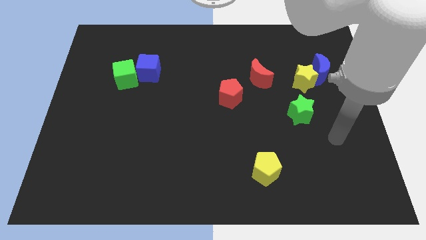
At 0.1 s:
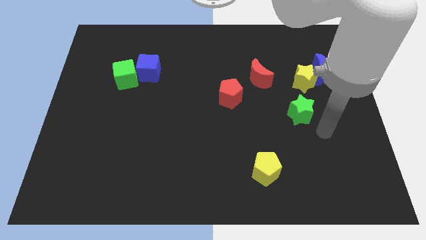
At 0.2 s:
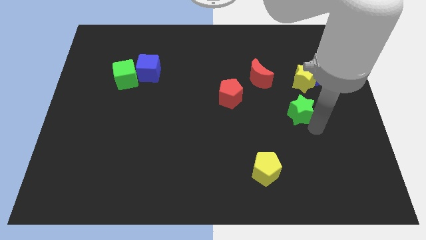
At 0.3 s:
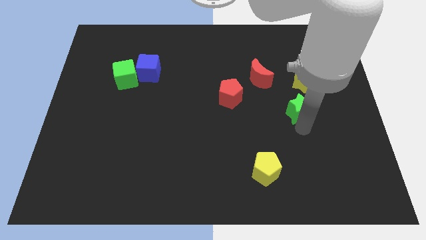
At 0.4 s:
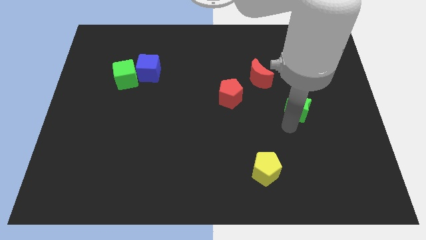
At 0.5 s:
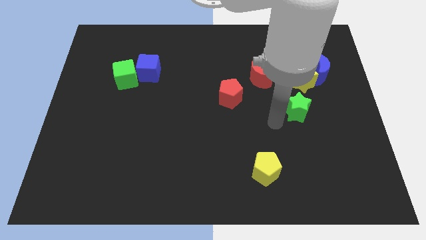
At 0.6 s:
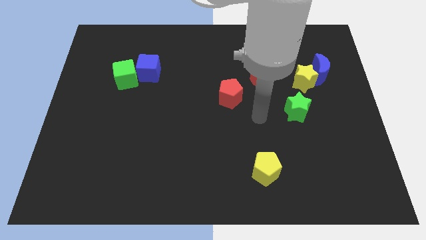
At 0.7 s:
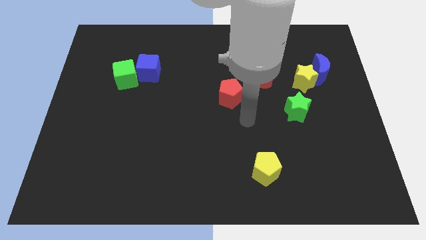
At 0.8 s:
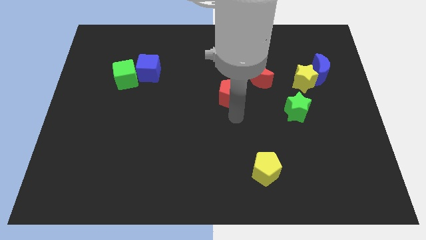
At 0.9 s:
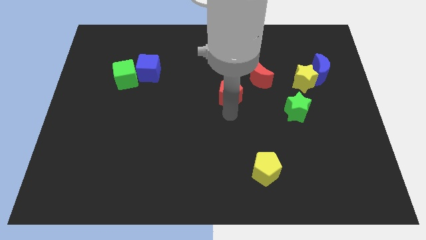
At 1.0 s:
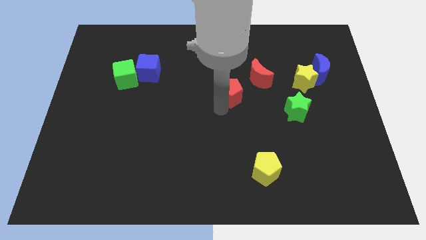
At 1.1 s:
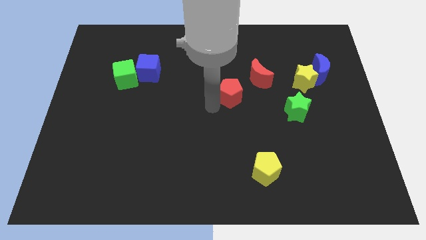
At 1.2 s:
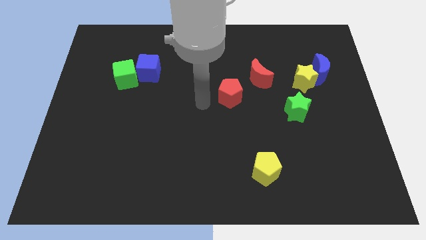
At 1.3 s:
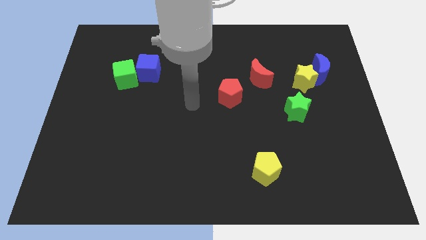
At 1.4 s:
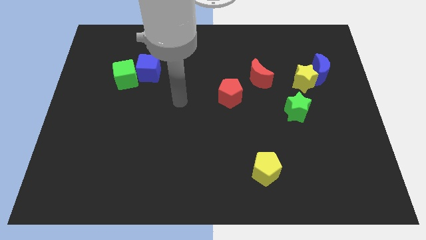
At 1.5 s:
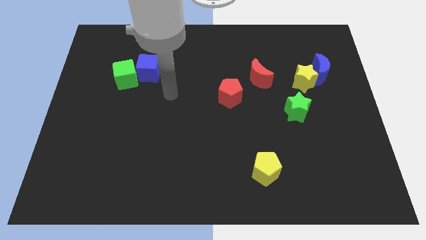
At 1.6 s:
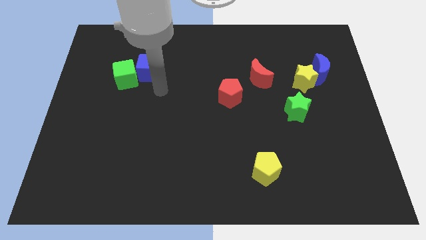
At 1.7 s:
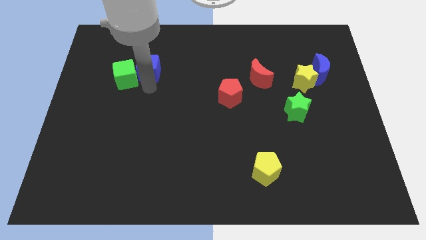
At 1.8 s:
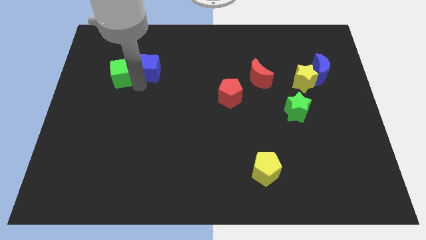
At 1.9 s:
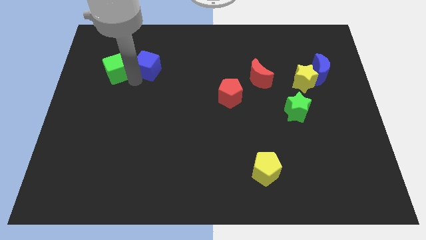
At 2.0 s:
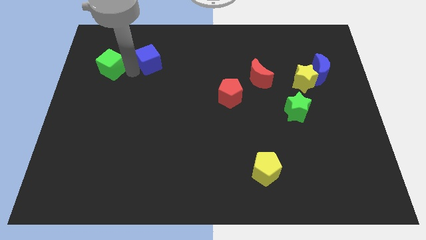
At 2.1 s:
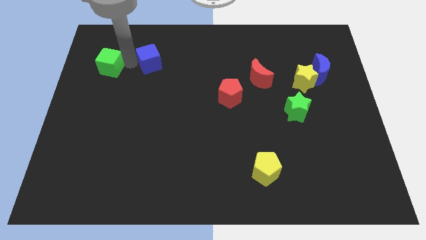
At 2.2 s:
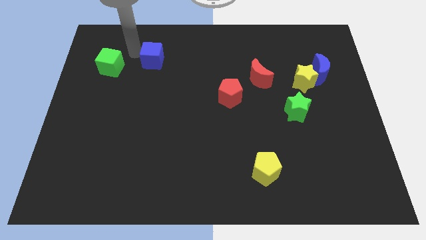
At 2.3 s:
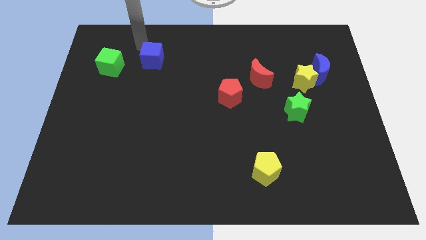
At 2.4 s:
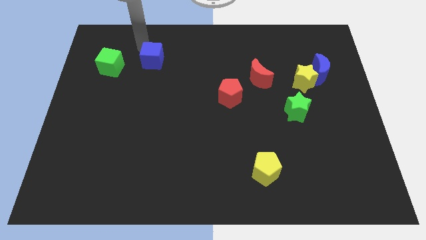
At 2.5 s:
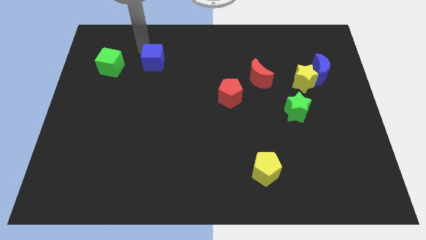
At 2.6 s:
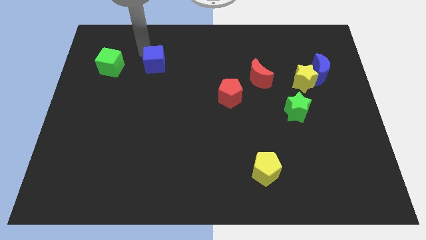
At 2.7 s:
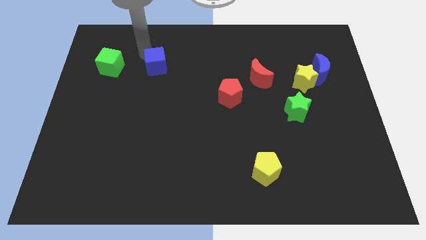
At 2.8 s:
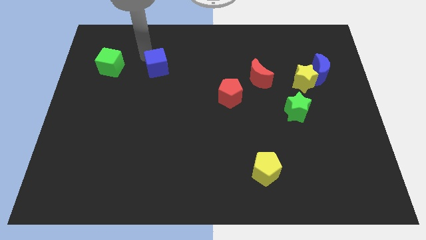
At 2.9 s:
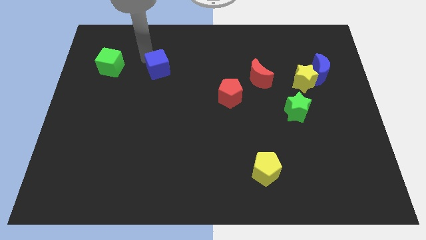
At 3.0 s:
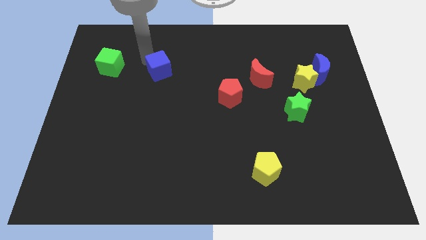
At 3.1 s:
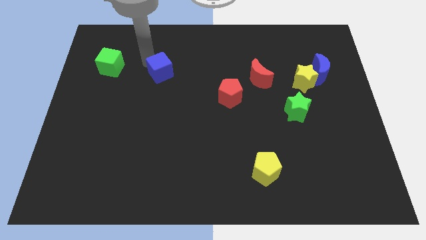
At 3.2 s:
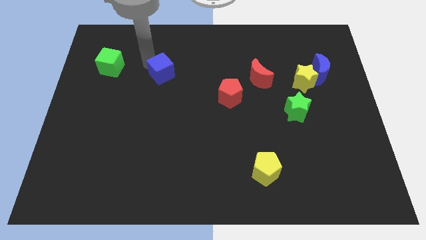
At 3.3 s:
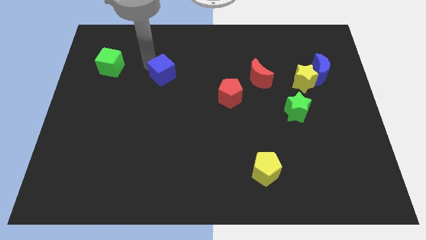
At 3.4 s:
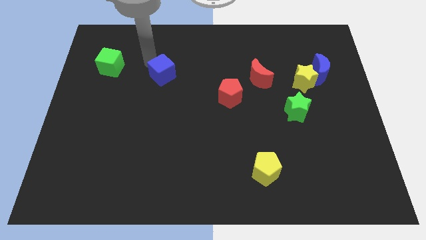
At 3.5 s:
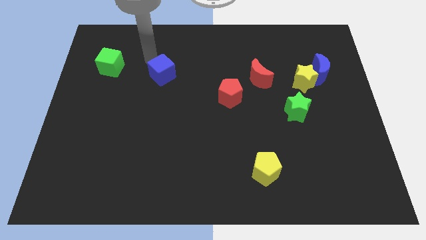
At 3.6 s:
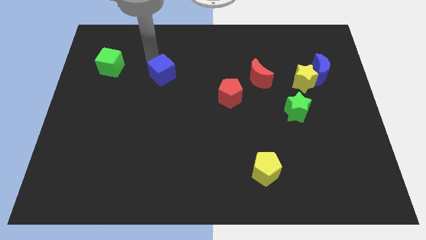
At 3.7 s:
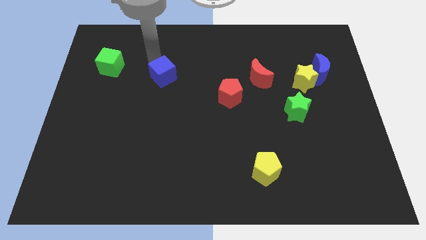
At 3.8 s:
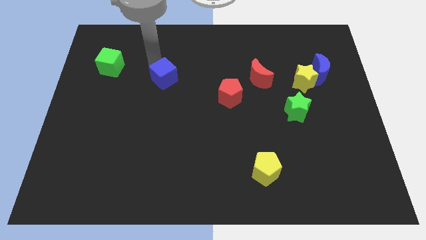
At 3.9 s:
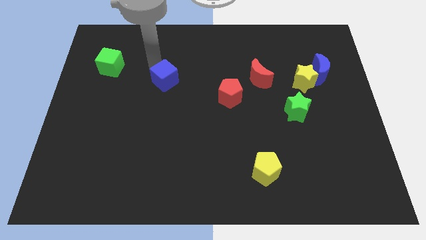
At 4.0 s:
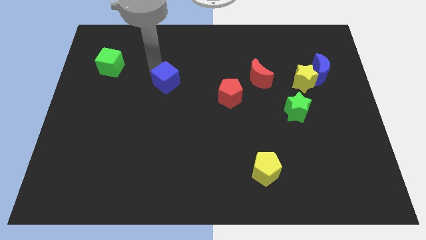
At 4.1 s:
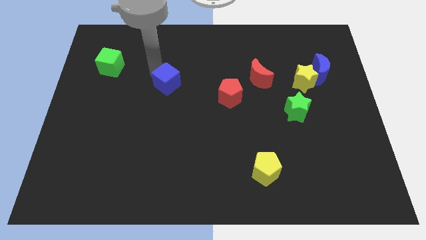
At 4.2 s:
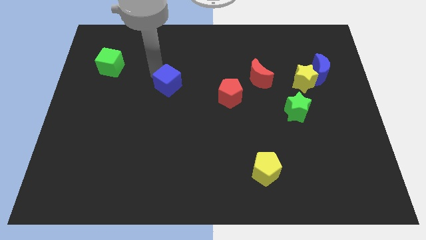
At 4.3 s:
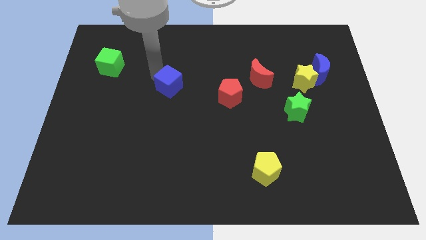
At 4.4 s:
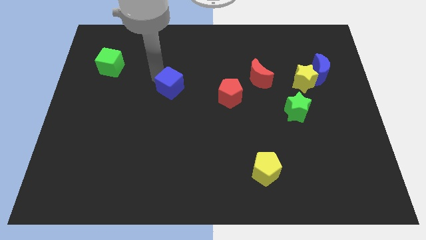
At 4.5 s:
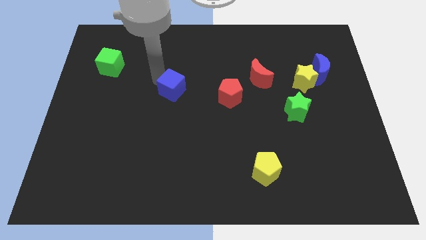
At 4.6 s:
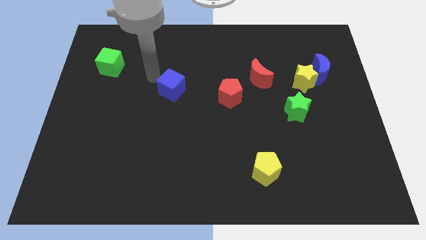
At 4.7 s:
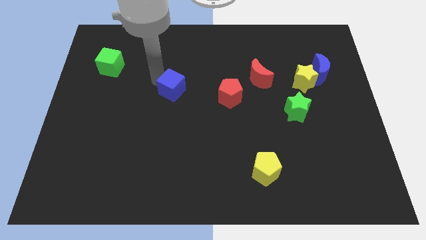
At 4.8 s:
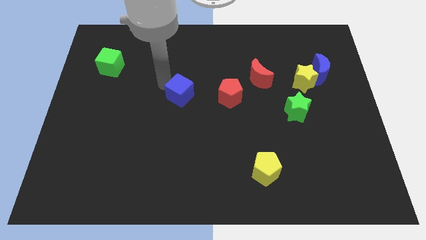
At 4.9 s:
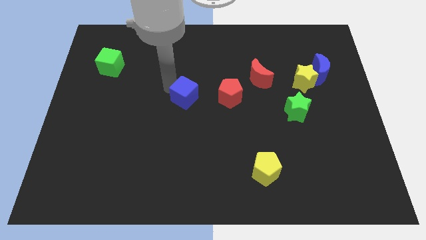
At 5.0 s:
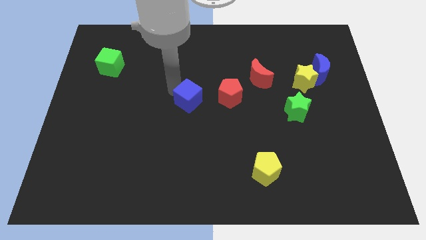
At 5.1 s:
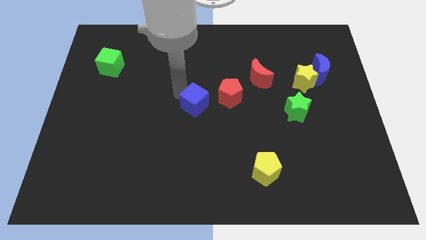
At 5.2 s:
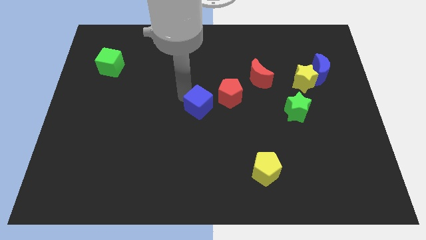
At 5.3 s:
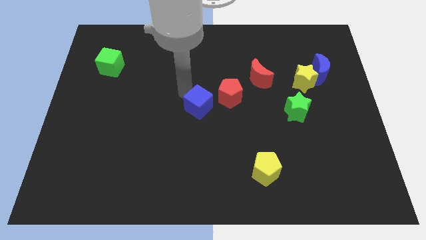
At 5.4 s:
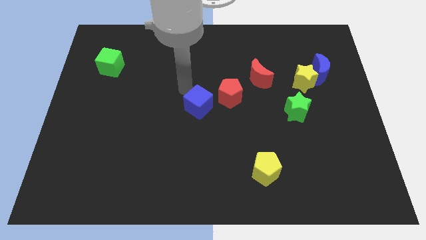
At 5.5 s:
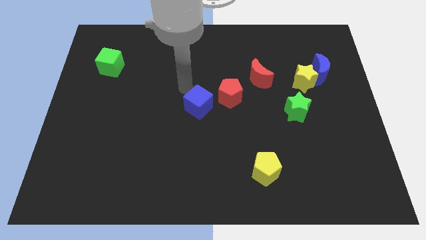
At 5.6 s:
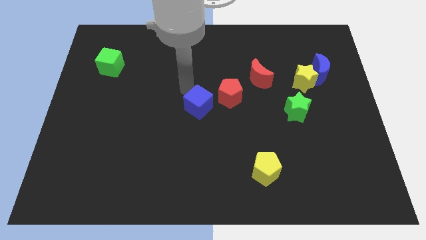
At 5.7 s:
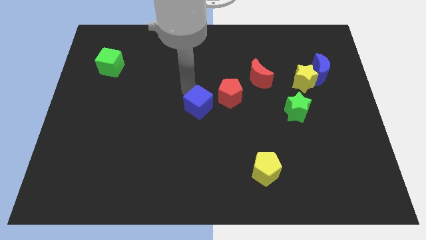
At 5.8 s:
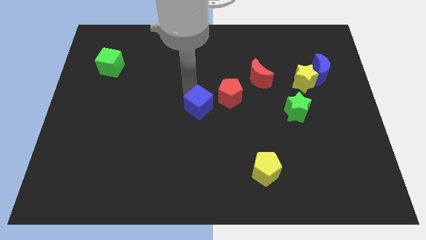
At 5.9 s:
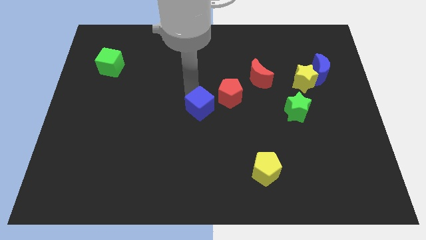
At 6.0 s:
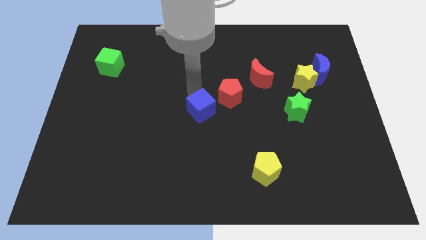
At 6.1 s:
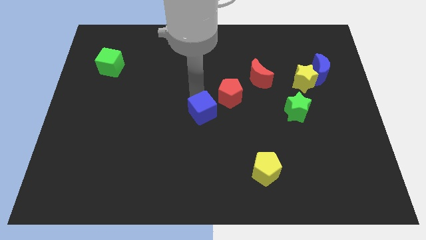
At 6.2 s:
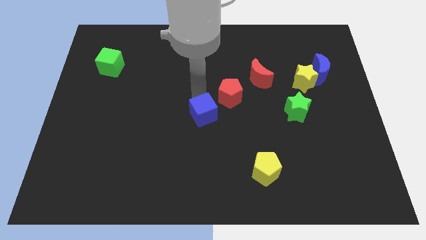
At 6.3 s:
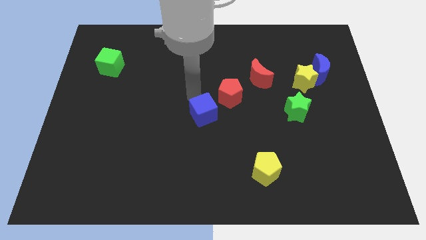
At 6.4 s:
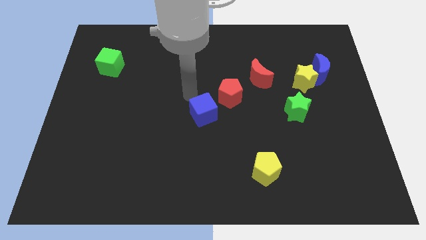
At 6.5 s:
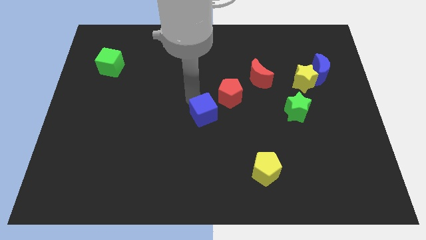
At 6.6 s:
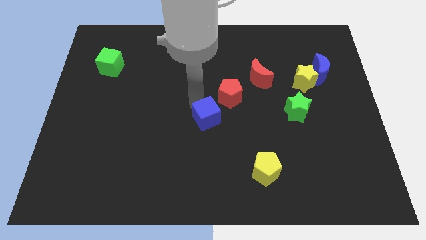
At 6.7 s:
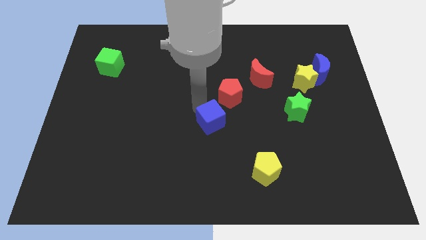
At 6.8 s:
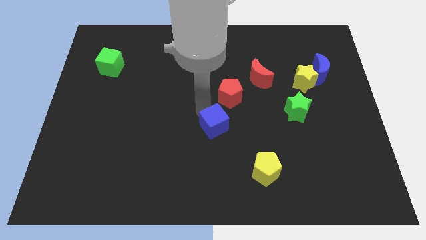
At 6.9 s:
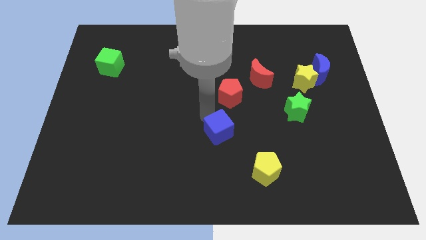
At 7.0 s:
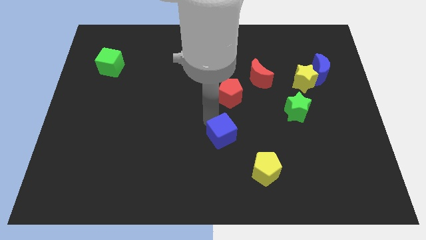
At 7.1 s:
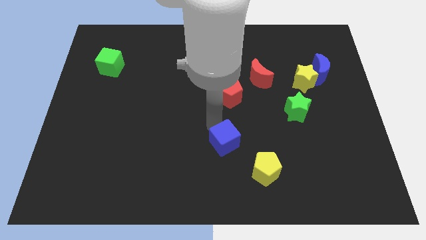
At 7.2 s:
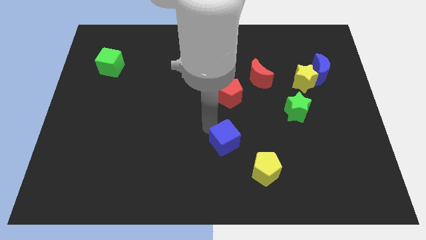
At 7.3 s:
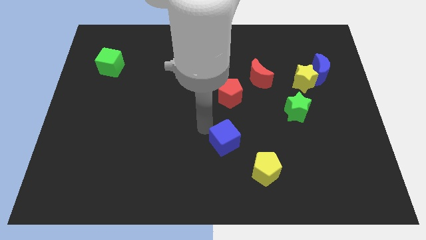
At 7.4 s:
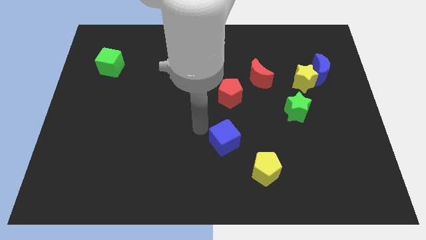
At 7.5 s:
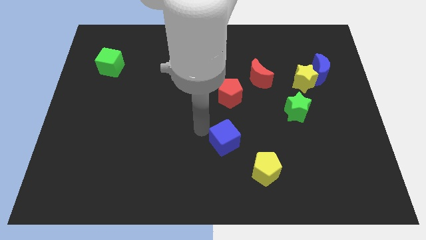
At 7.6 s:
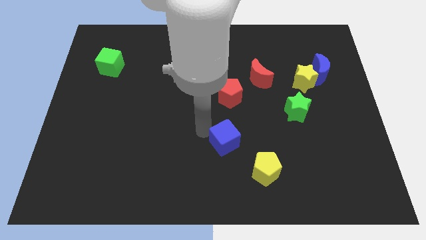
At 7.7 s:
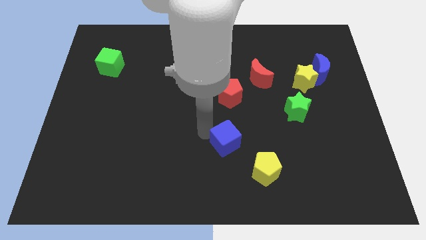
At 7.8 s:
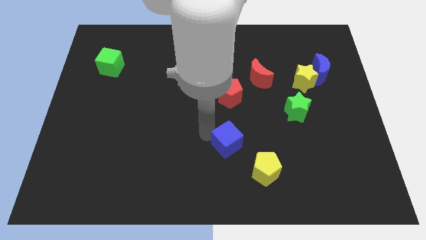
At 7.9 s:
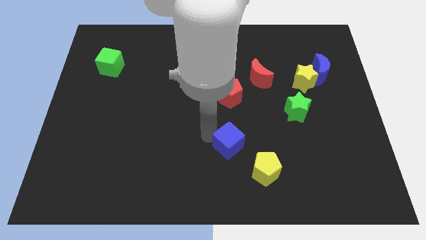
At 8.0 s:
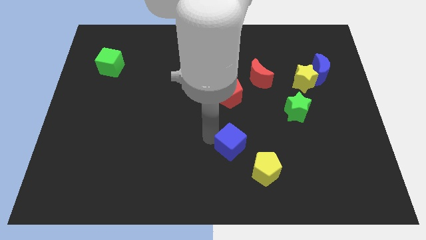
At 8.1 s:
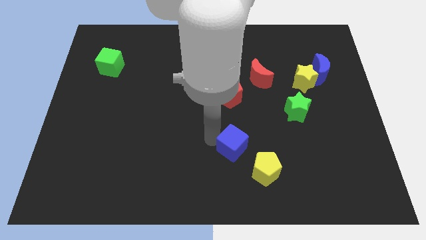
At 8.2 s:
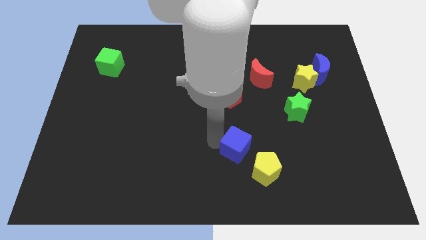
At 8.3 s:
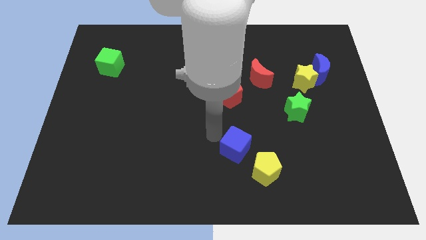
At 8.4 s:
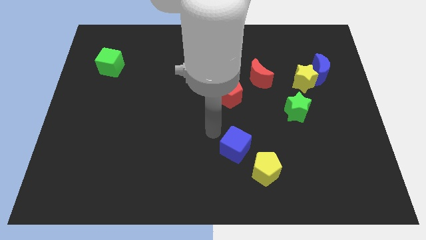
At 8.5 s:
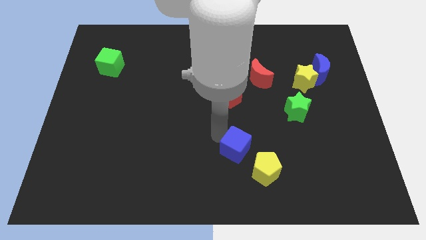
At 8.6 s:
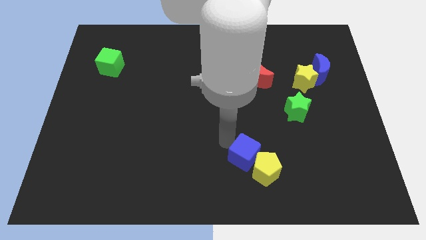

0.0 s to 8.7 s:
put the blue cube towards the yellow pentagon
